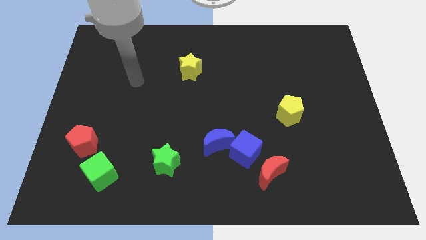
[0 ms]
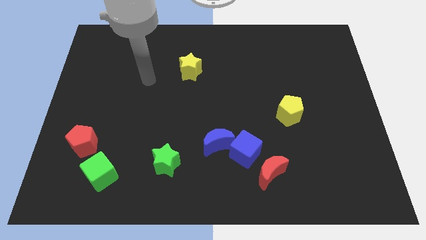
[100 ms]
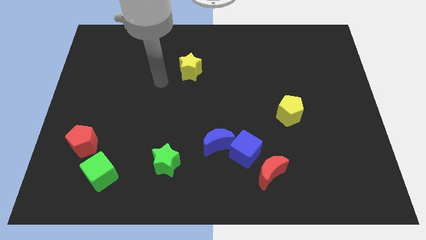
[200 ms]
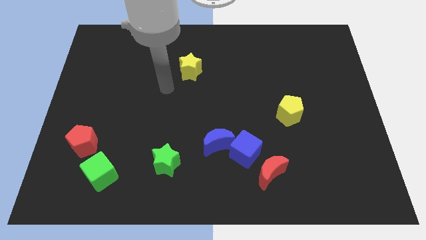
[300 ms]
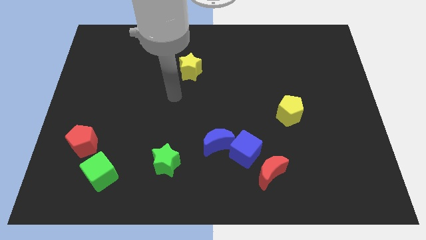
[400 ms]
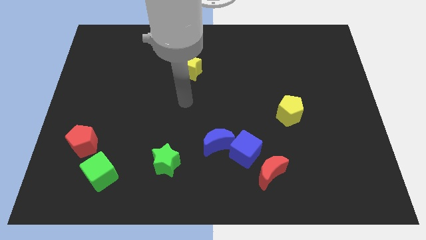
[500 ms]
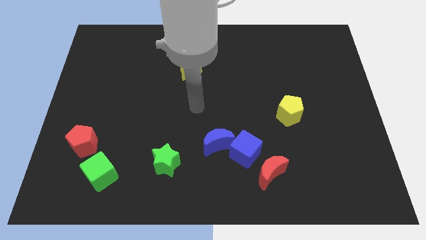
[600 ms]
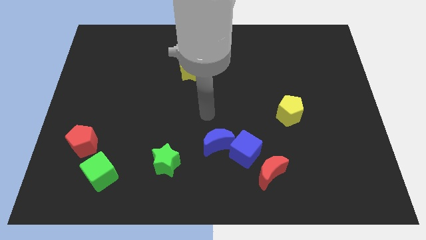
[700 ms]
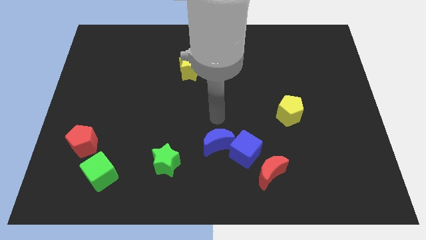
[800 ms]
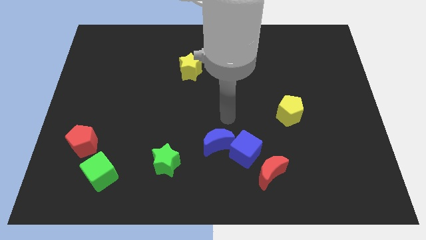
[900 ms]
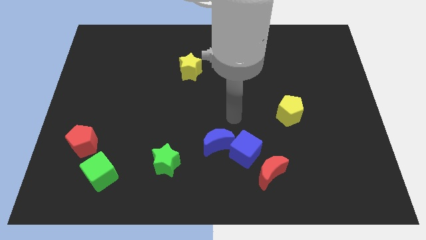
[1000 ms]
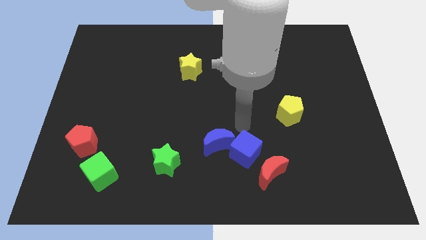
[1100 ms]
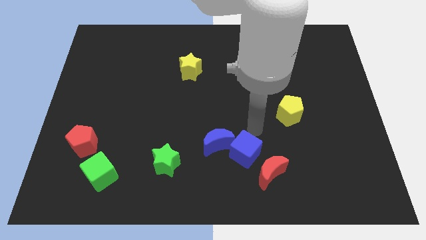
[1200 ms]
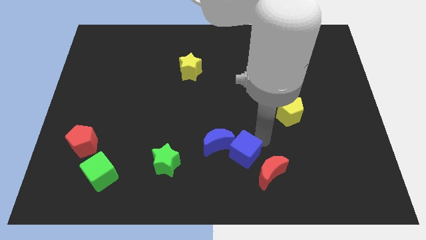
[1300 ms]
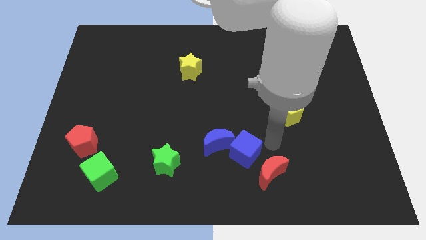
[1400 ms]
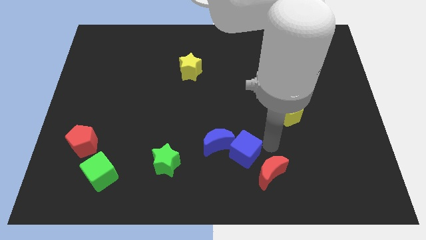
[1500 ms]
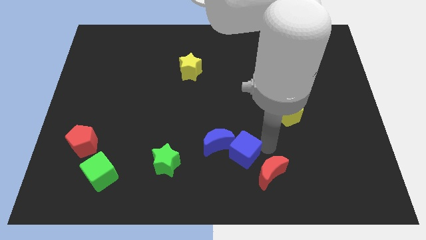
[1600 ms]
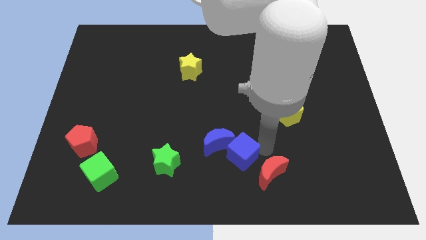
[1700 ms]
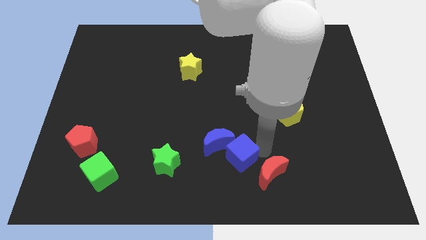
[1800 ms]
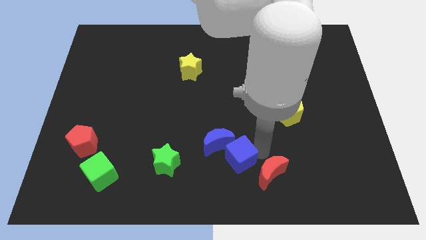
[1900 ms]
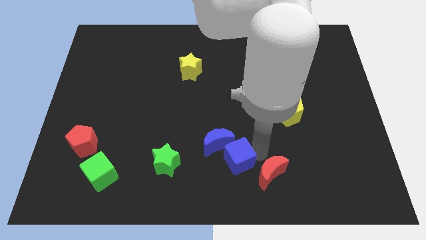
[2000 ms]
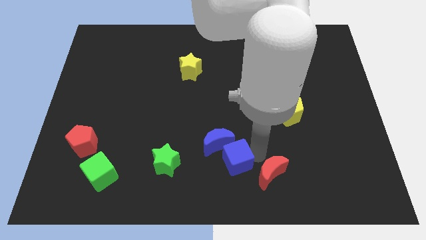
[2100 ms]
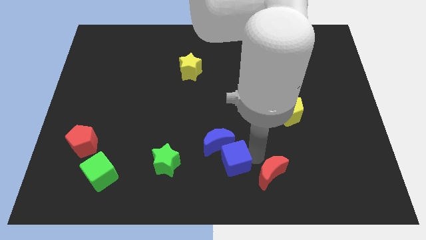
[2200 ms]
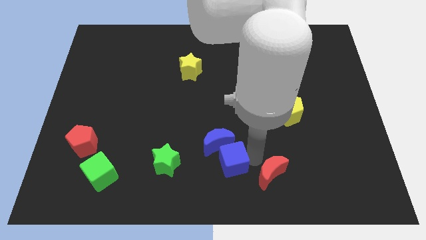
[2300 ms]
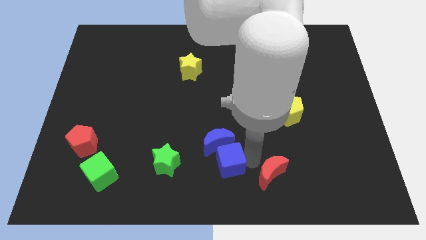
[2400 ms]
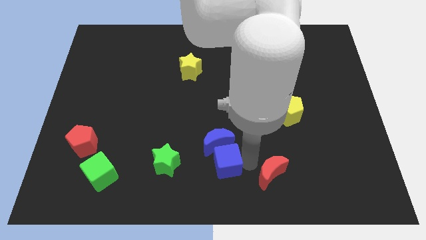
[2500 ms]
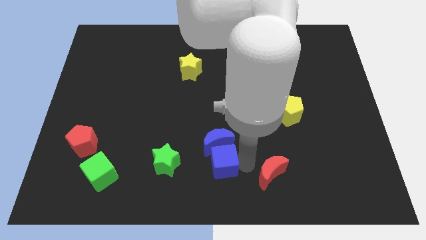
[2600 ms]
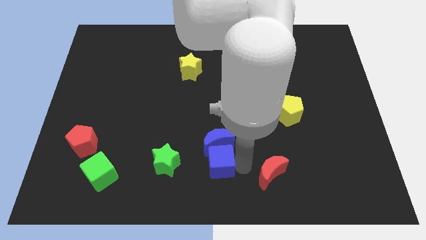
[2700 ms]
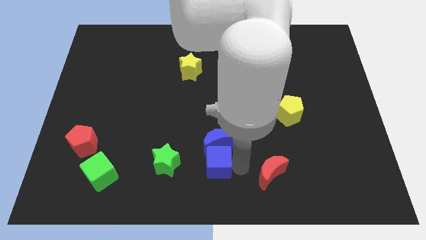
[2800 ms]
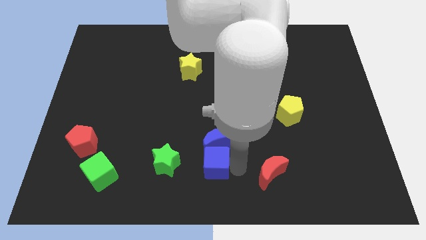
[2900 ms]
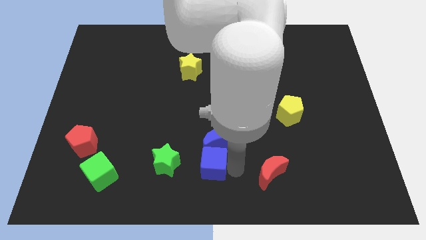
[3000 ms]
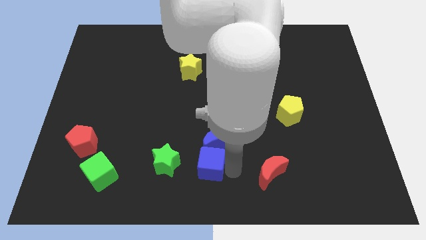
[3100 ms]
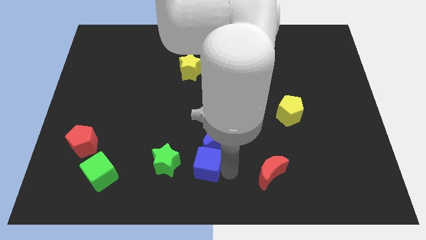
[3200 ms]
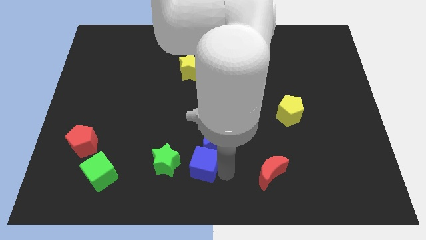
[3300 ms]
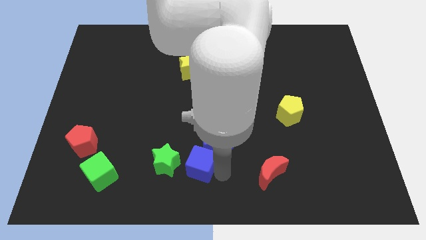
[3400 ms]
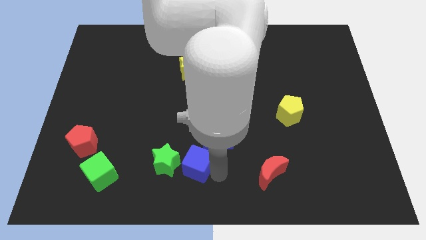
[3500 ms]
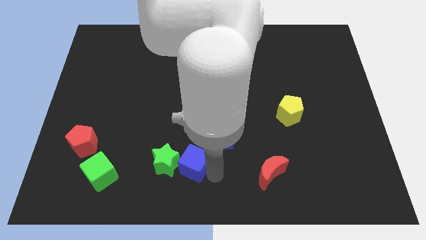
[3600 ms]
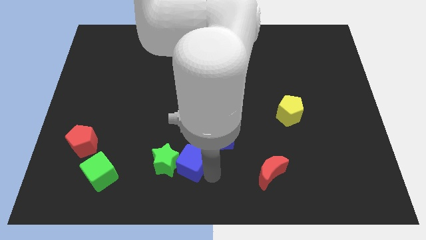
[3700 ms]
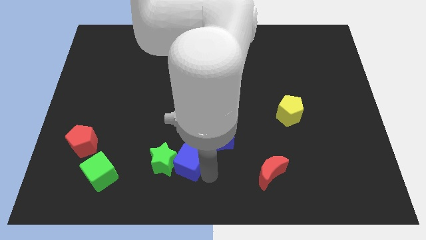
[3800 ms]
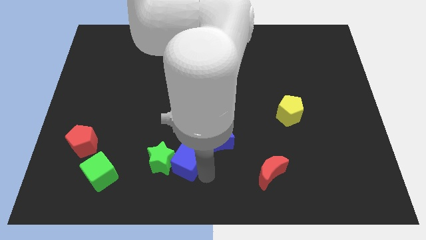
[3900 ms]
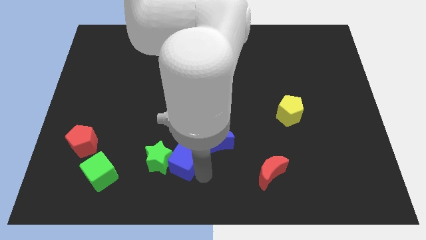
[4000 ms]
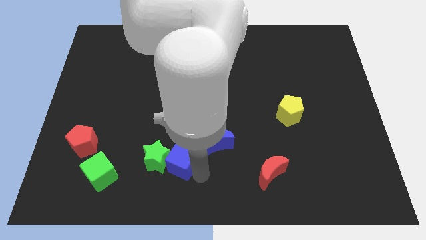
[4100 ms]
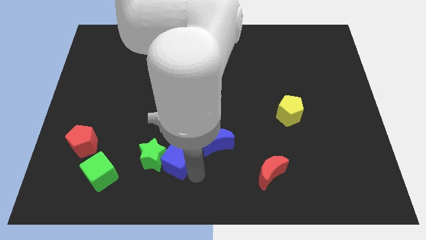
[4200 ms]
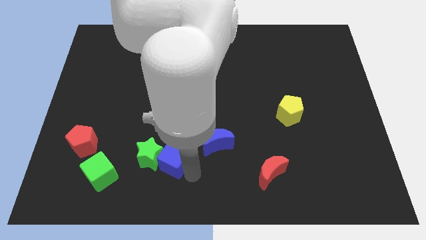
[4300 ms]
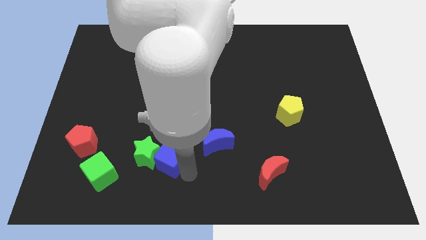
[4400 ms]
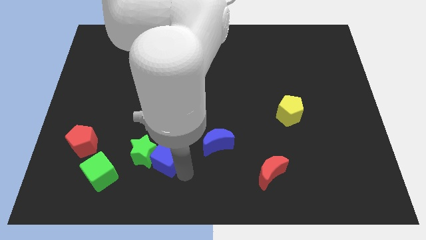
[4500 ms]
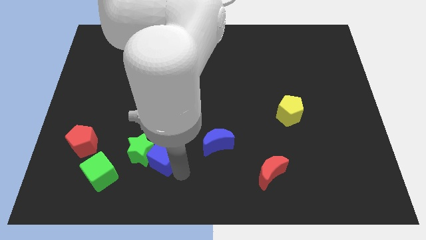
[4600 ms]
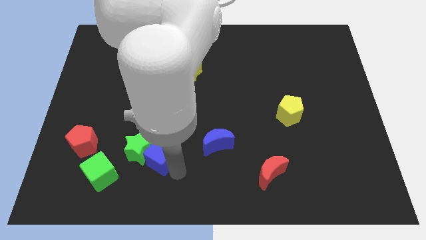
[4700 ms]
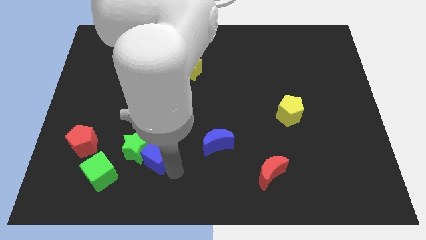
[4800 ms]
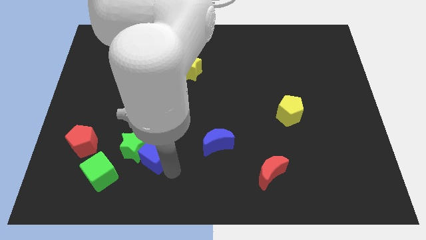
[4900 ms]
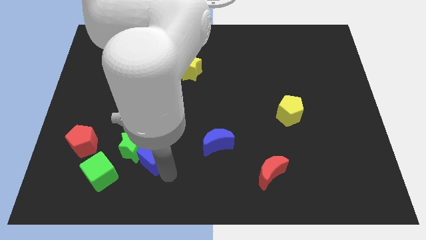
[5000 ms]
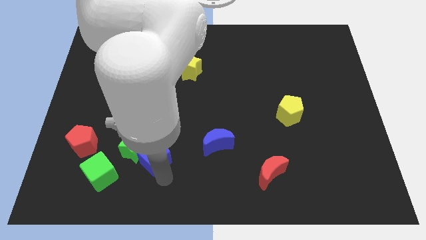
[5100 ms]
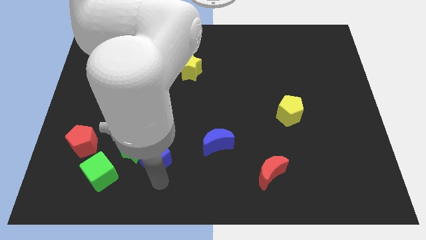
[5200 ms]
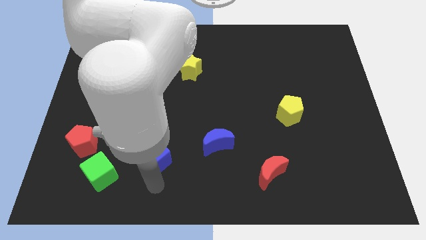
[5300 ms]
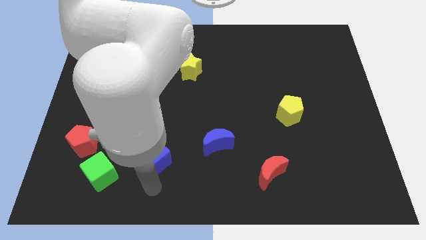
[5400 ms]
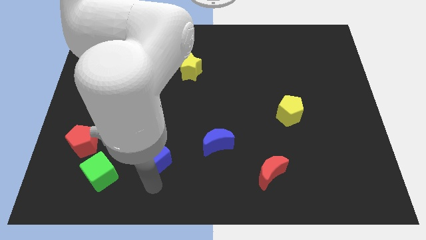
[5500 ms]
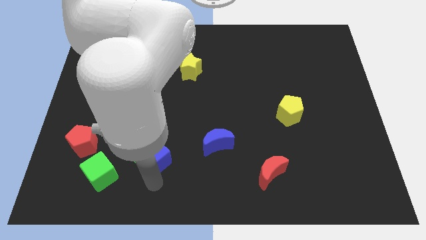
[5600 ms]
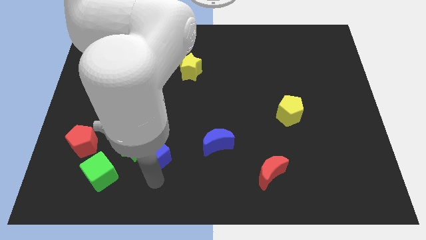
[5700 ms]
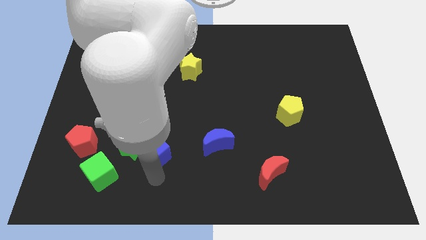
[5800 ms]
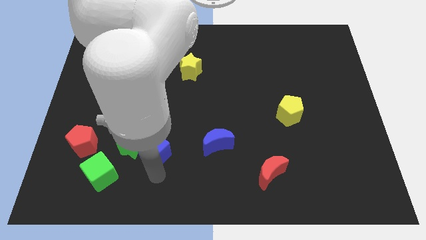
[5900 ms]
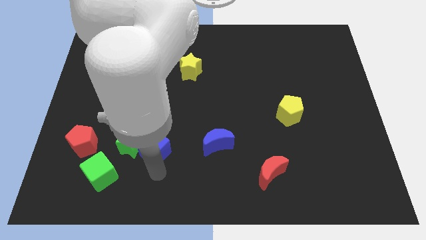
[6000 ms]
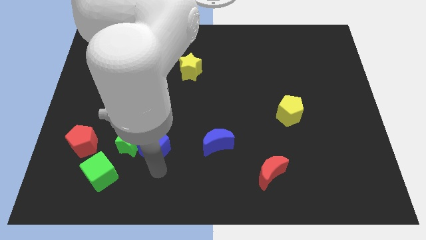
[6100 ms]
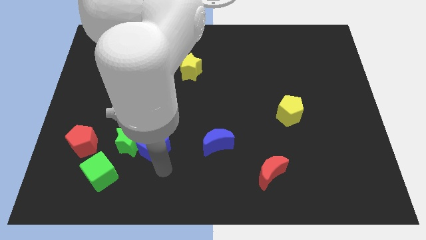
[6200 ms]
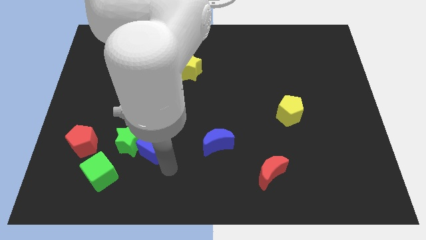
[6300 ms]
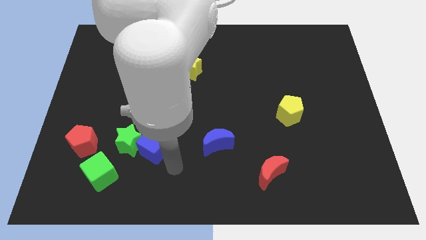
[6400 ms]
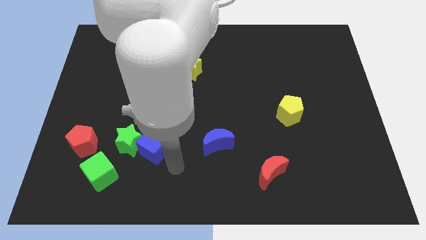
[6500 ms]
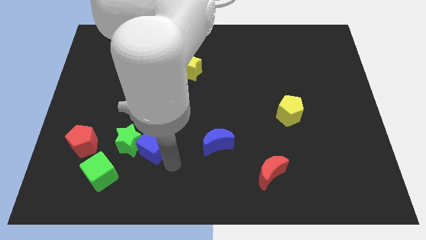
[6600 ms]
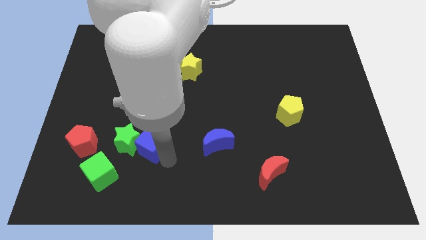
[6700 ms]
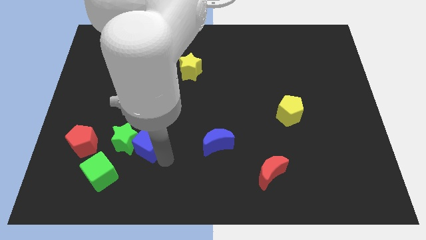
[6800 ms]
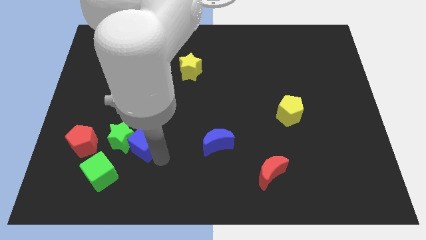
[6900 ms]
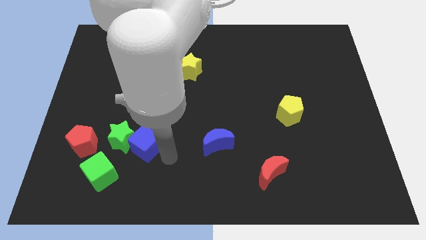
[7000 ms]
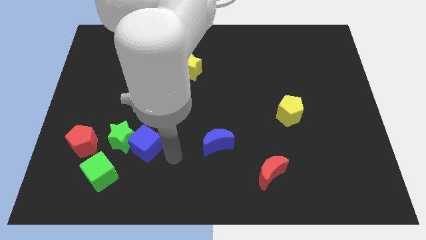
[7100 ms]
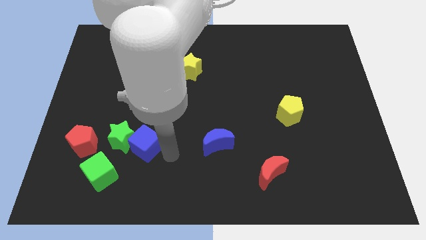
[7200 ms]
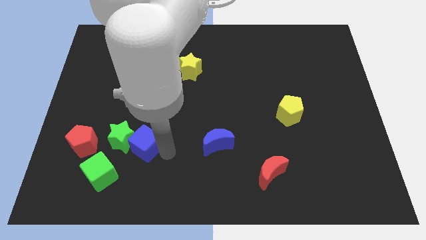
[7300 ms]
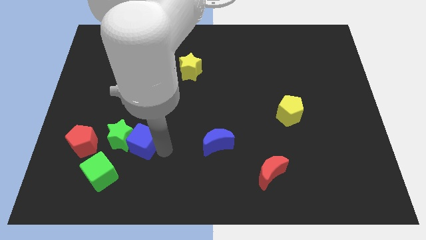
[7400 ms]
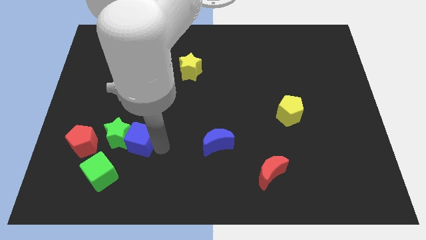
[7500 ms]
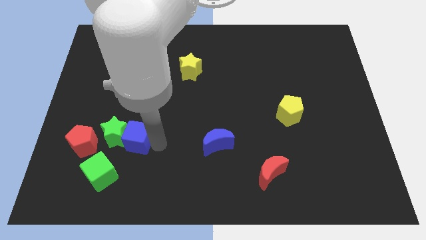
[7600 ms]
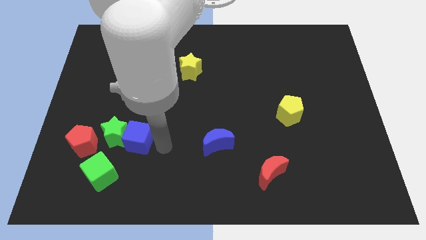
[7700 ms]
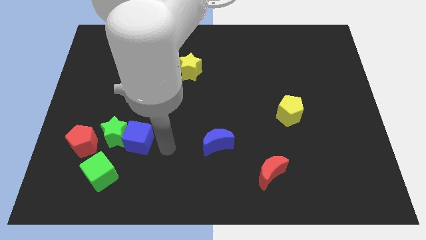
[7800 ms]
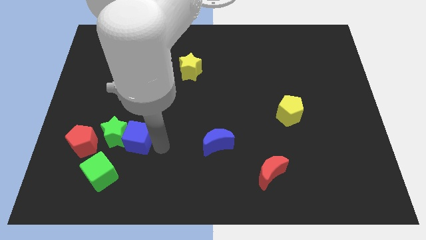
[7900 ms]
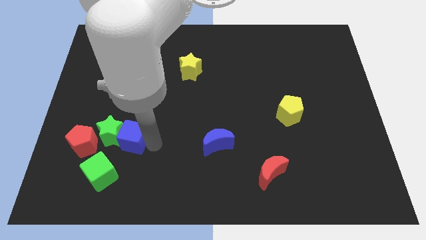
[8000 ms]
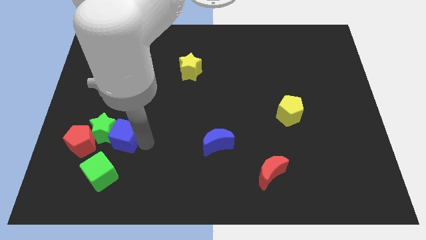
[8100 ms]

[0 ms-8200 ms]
move the blue cube to the top of the green cube
